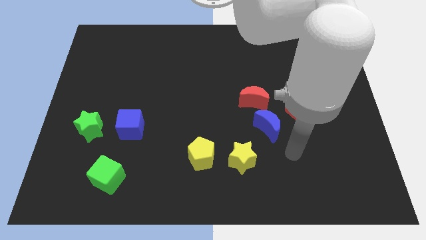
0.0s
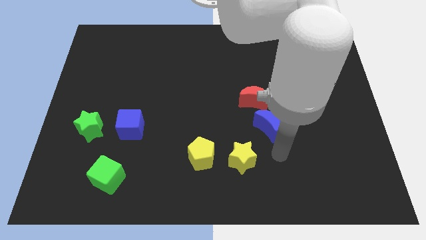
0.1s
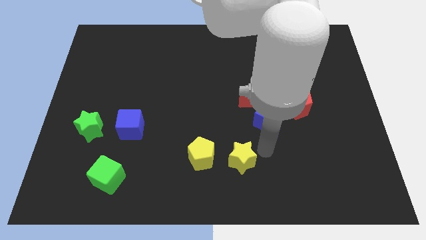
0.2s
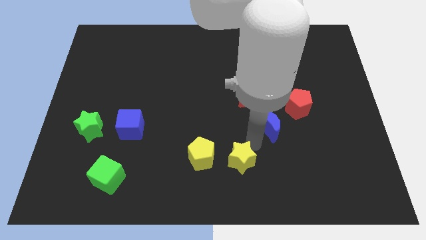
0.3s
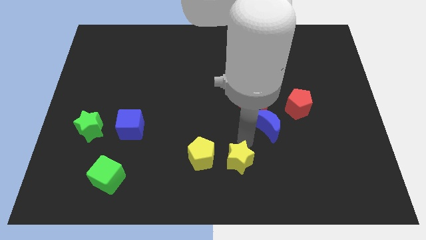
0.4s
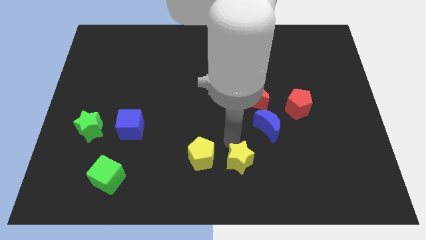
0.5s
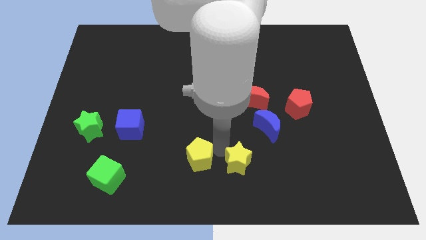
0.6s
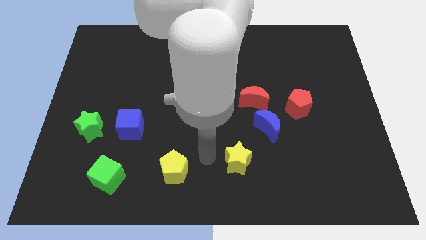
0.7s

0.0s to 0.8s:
pull the yellow star apart from the yellow pentagon

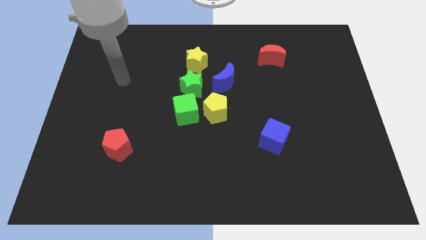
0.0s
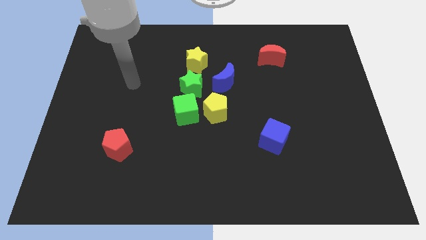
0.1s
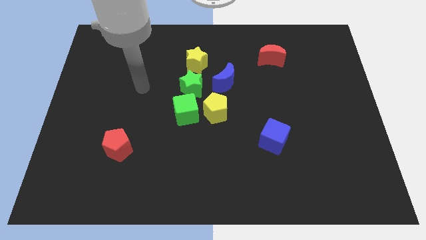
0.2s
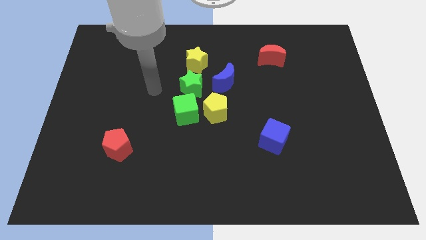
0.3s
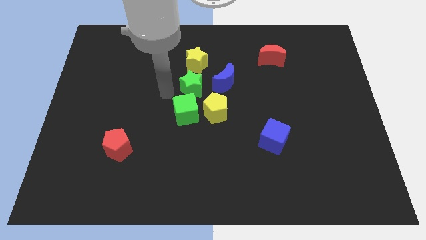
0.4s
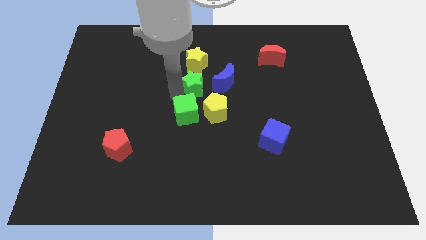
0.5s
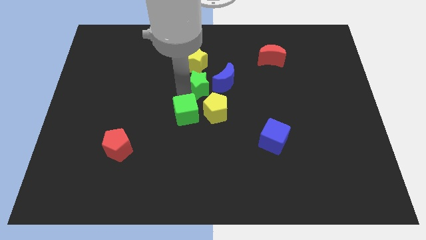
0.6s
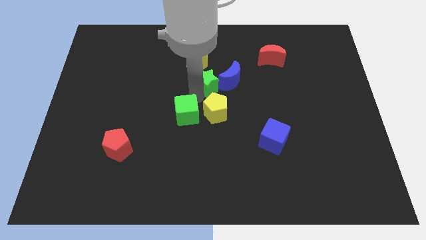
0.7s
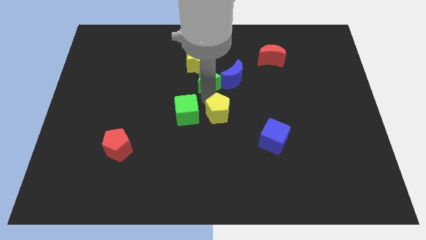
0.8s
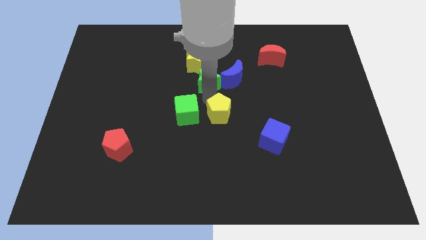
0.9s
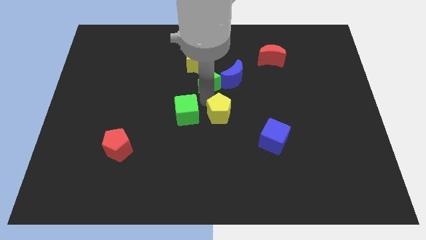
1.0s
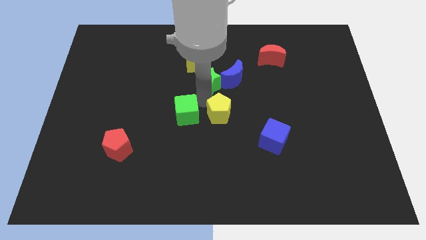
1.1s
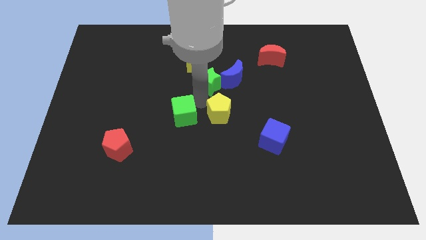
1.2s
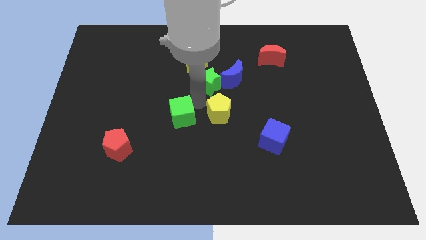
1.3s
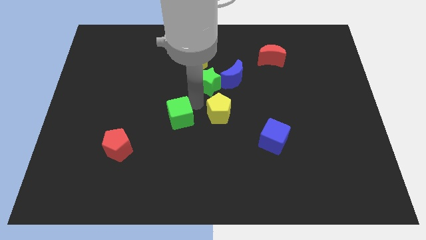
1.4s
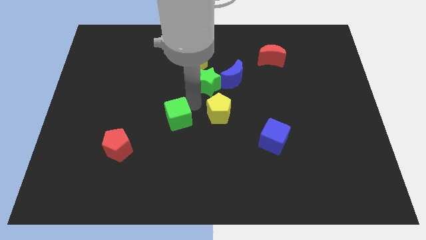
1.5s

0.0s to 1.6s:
move the green cube away from the yellow pentagon and green star

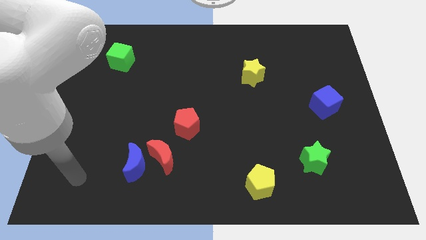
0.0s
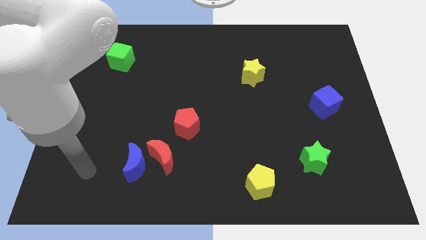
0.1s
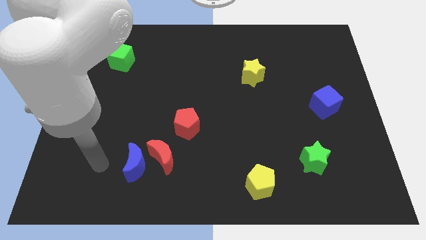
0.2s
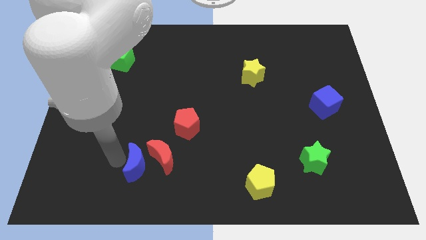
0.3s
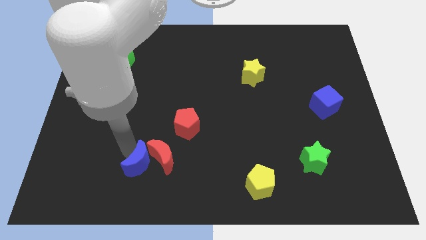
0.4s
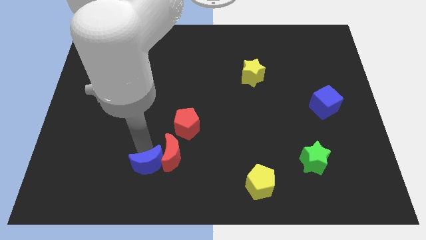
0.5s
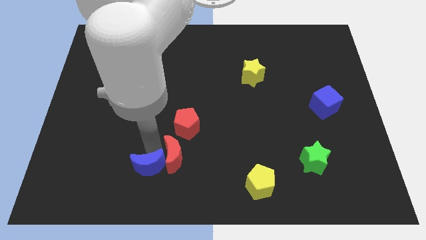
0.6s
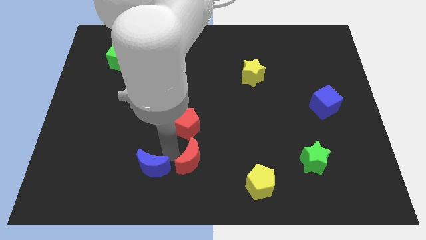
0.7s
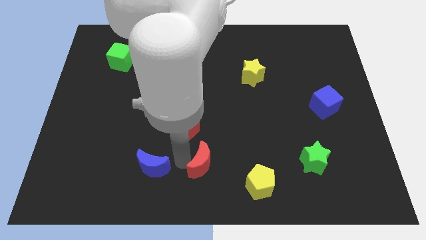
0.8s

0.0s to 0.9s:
move the blue moon away from the red moon

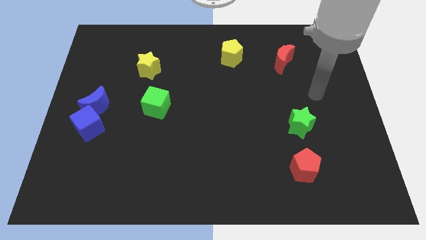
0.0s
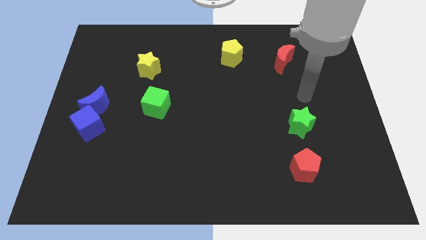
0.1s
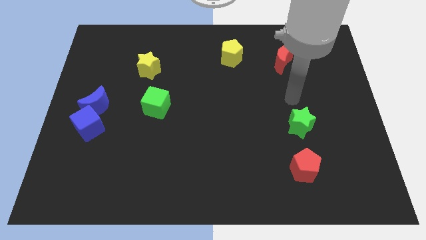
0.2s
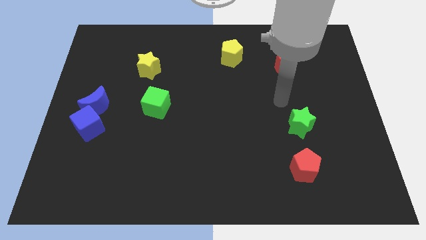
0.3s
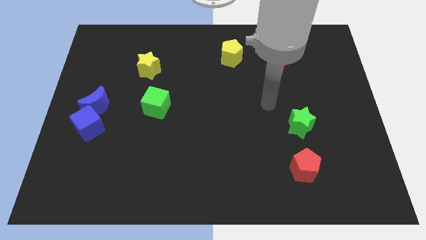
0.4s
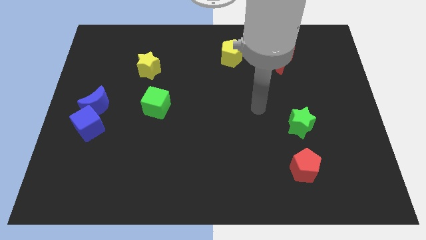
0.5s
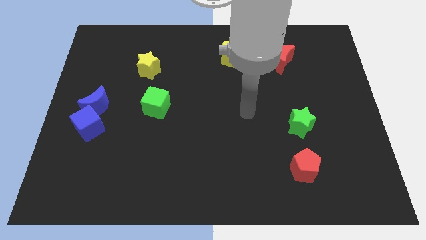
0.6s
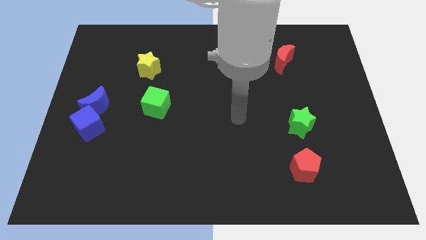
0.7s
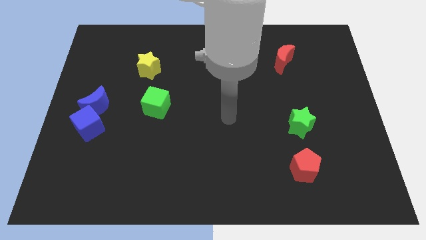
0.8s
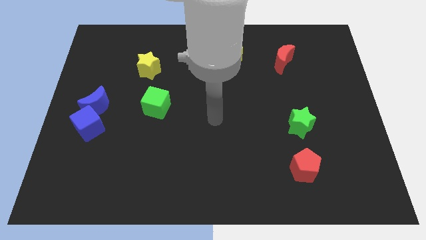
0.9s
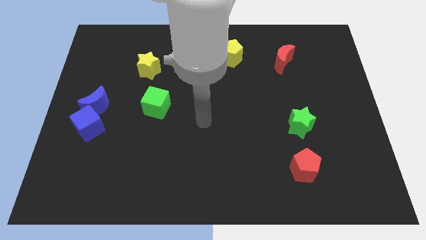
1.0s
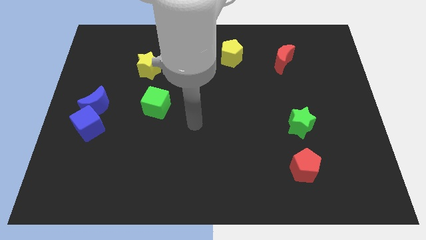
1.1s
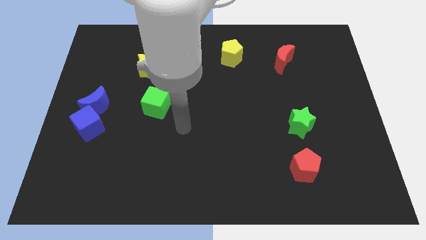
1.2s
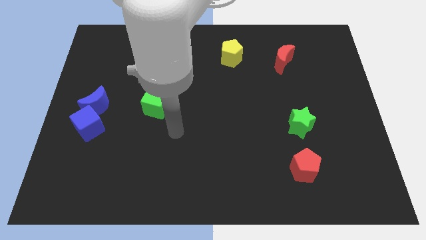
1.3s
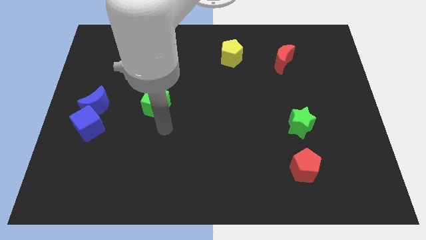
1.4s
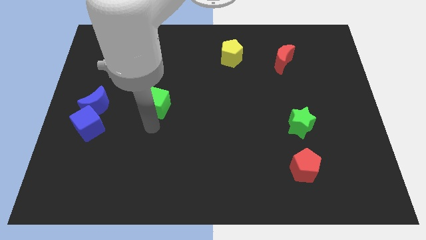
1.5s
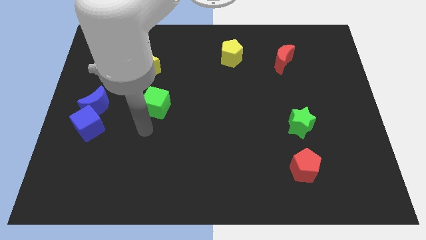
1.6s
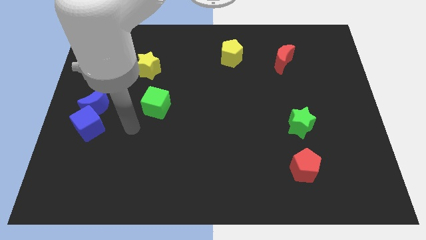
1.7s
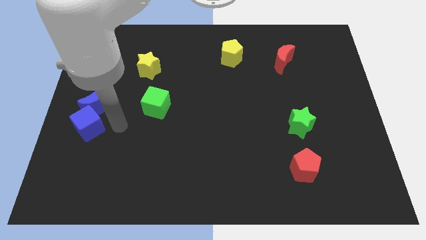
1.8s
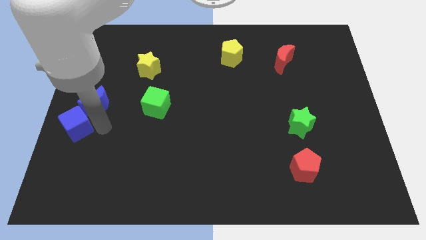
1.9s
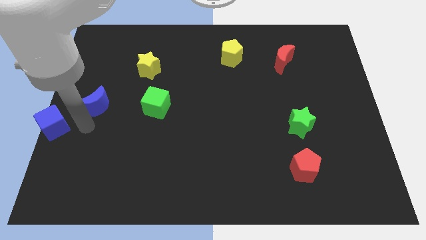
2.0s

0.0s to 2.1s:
move the blue moon away from the blue cube

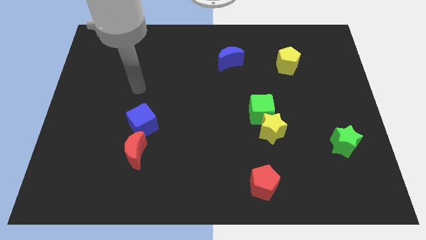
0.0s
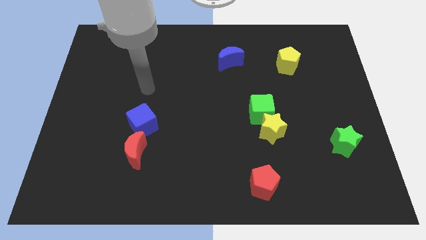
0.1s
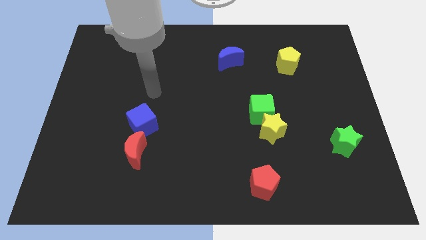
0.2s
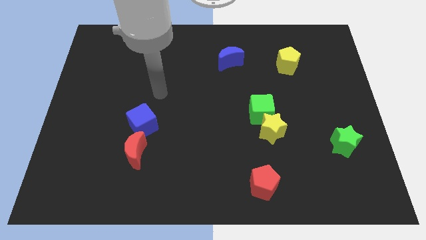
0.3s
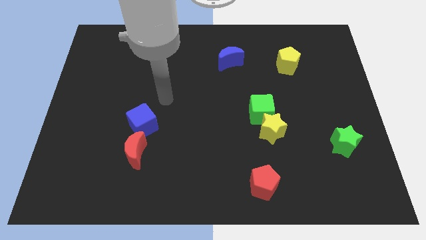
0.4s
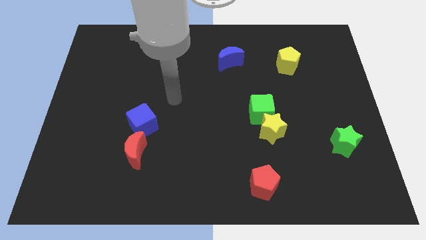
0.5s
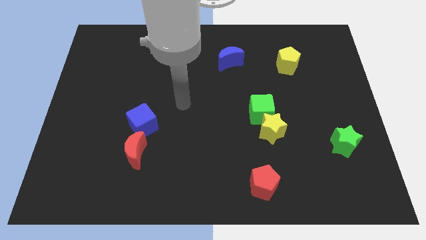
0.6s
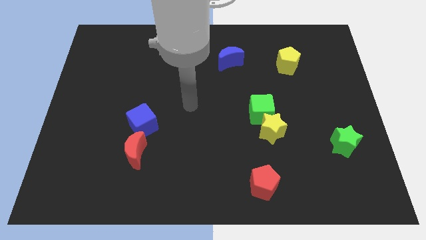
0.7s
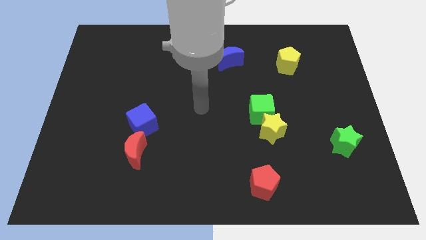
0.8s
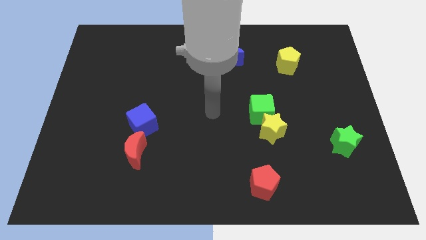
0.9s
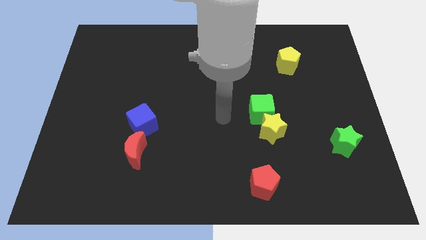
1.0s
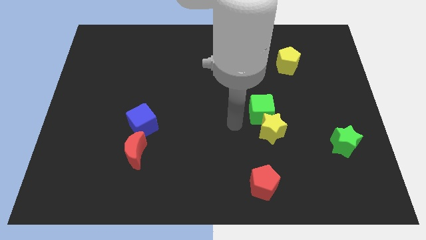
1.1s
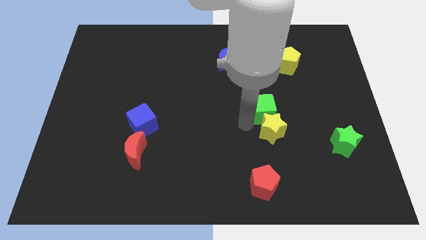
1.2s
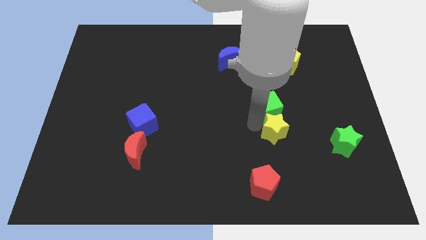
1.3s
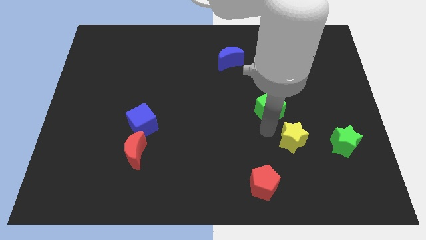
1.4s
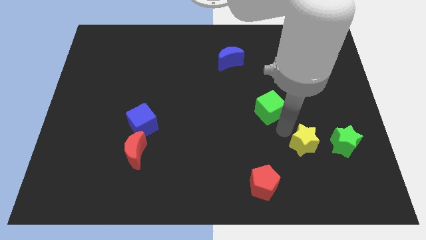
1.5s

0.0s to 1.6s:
pull the green cube apart from the yellow star

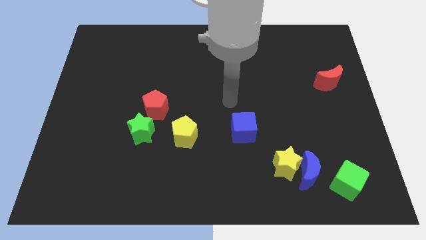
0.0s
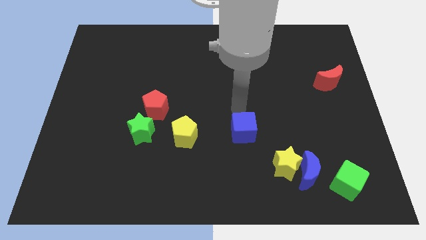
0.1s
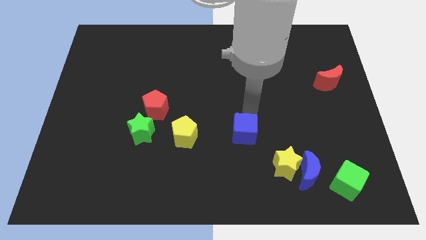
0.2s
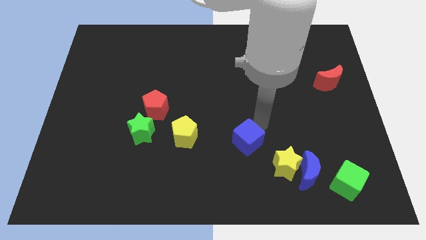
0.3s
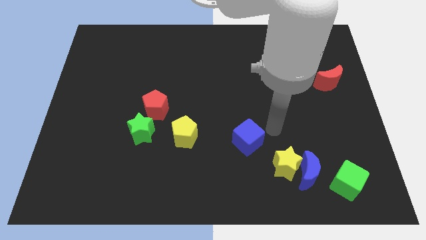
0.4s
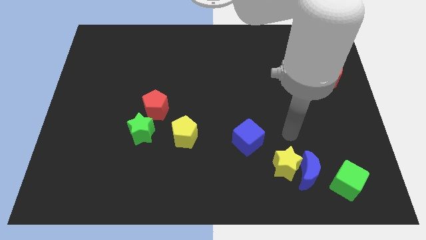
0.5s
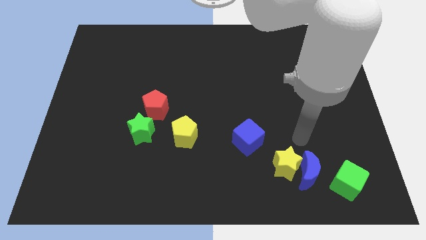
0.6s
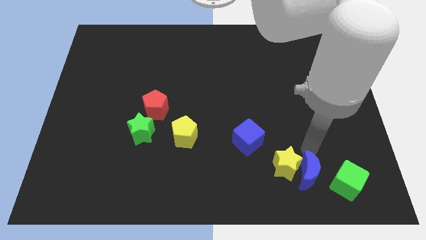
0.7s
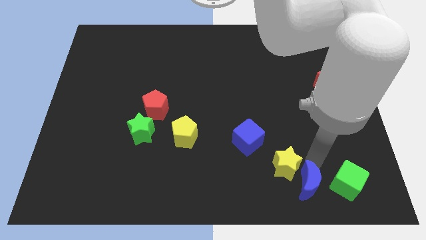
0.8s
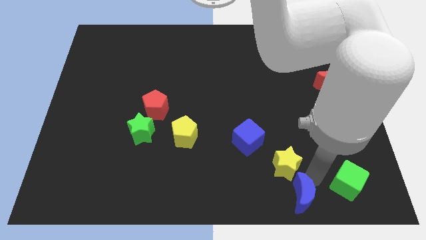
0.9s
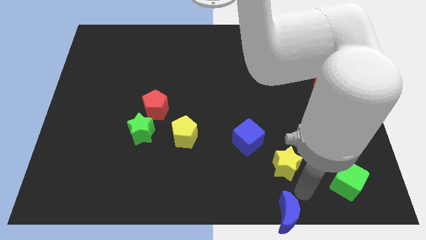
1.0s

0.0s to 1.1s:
separate the yellow star from the blue moon

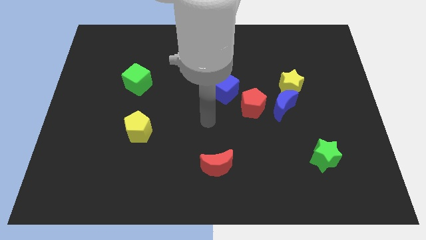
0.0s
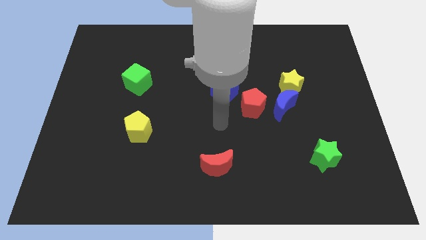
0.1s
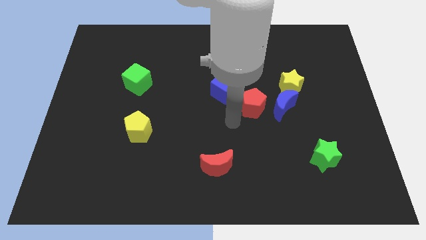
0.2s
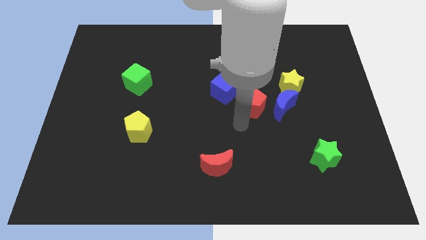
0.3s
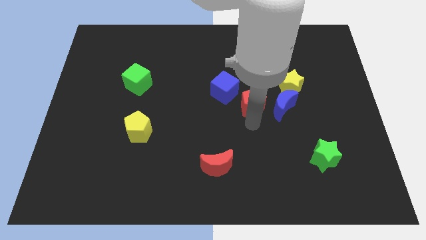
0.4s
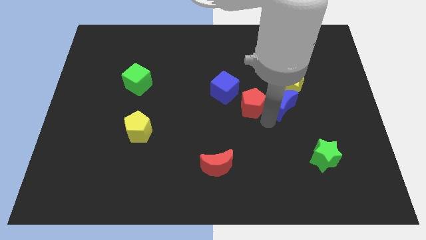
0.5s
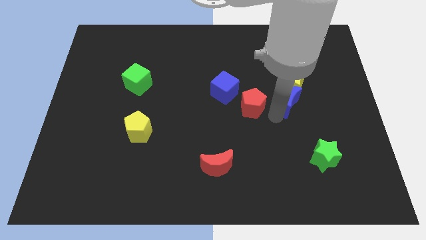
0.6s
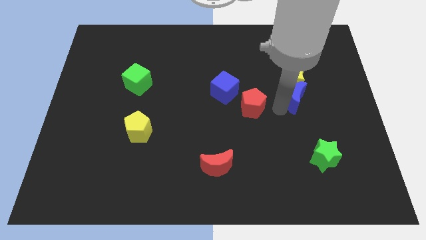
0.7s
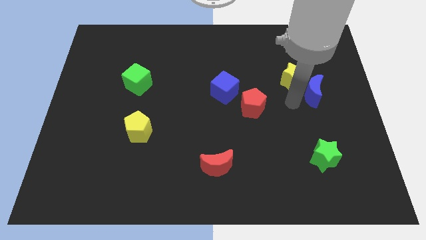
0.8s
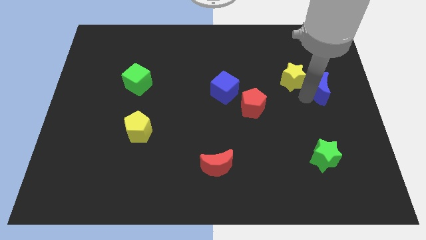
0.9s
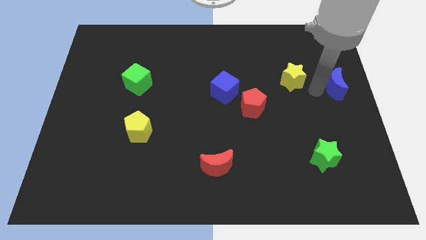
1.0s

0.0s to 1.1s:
move the yellow star away from the blue moon
